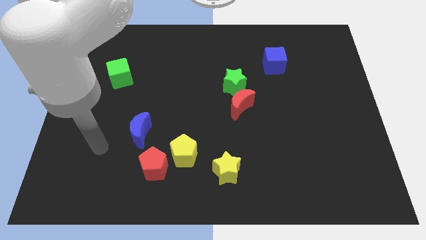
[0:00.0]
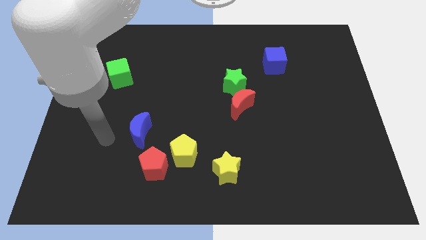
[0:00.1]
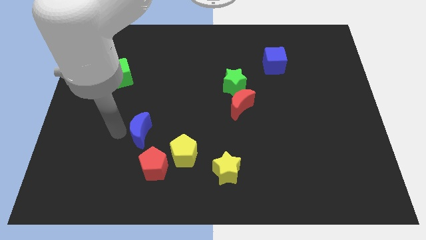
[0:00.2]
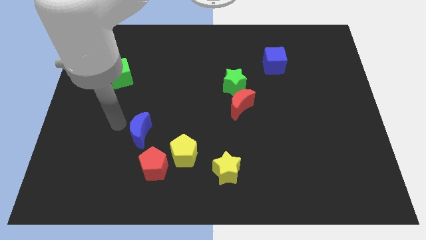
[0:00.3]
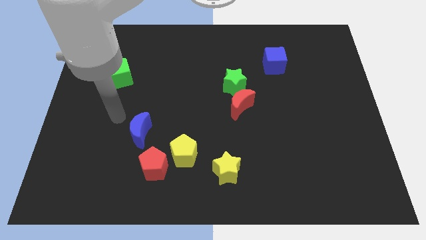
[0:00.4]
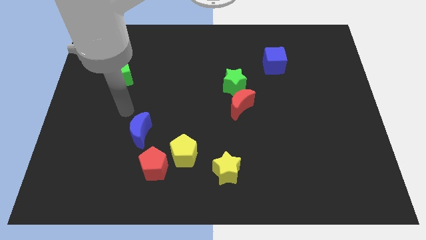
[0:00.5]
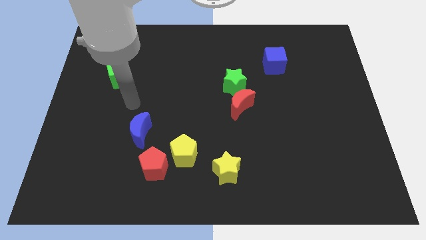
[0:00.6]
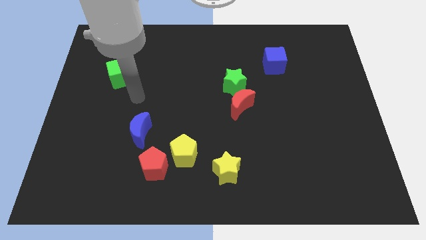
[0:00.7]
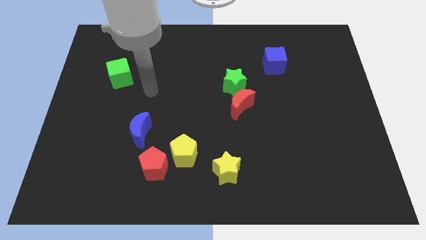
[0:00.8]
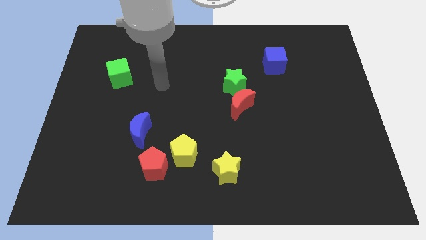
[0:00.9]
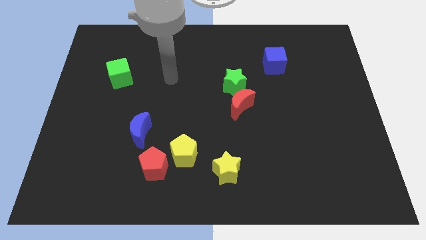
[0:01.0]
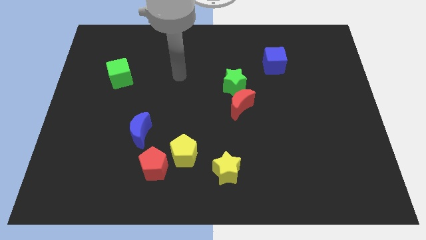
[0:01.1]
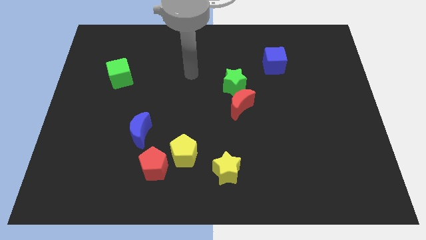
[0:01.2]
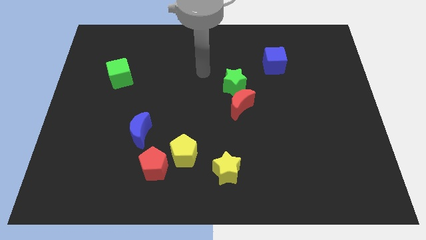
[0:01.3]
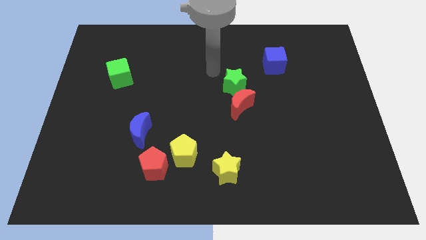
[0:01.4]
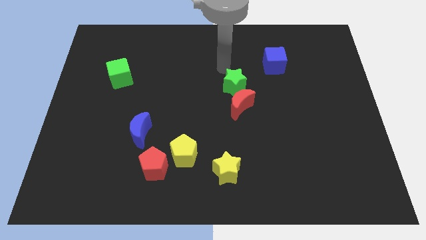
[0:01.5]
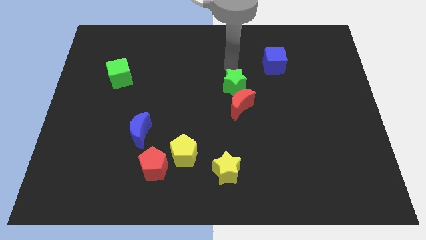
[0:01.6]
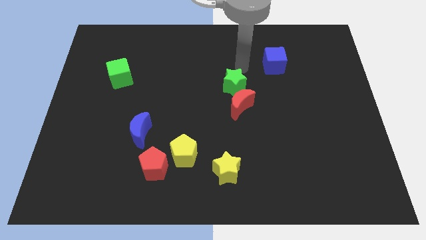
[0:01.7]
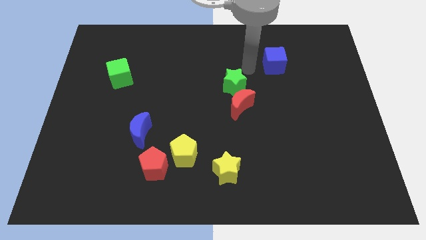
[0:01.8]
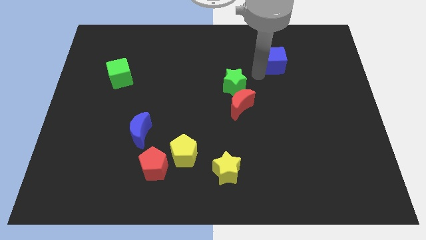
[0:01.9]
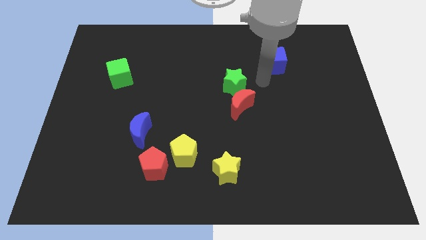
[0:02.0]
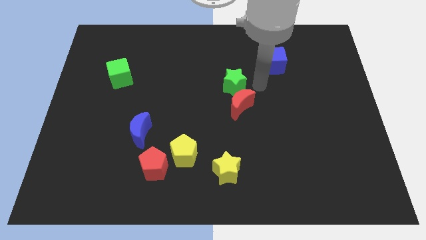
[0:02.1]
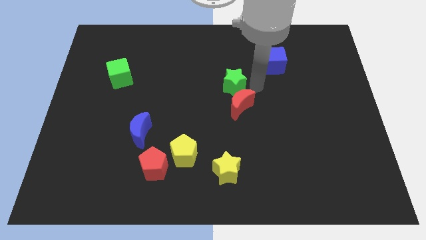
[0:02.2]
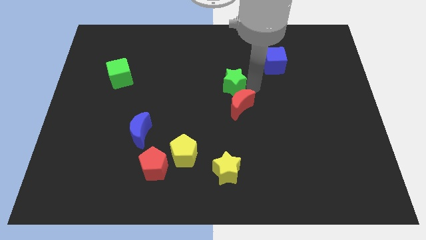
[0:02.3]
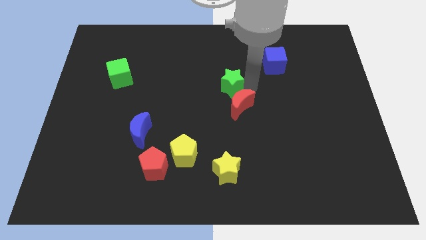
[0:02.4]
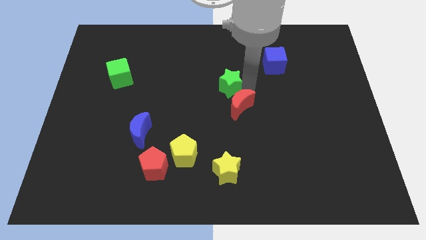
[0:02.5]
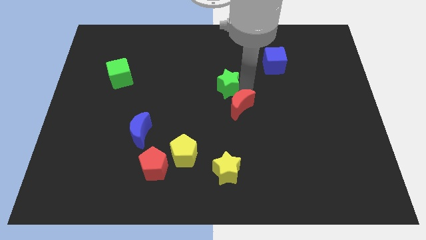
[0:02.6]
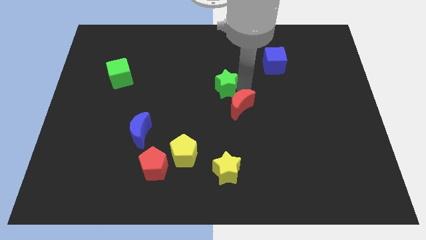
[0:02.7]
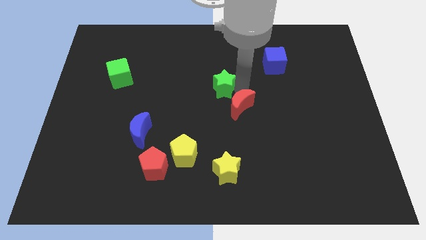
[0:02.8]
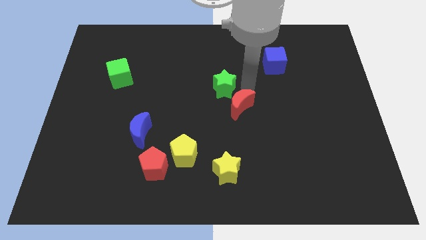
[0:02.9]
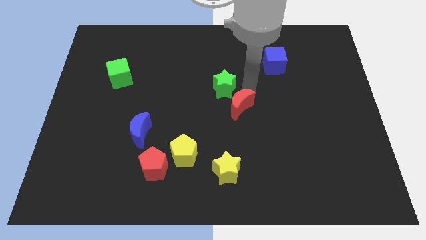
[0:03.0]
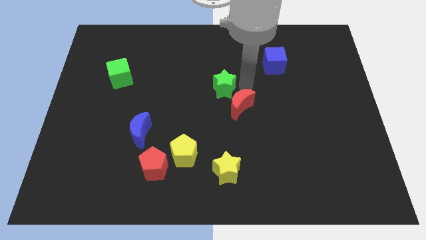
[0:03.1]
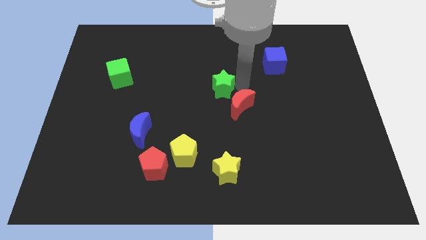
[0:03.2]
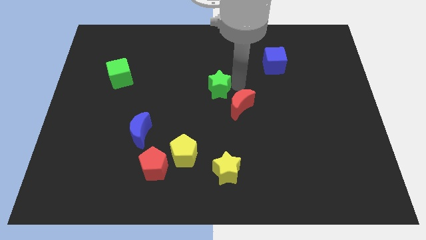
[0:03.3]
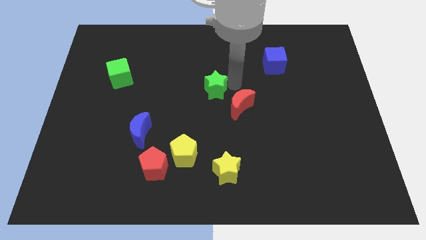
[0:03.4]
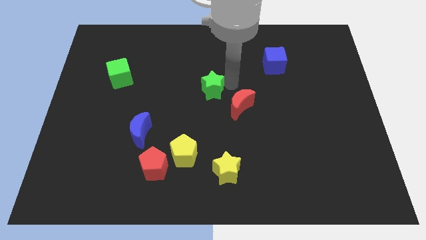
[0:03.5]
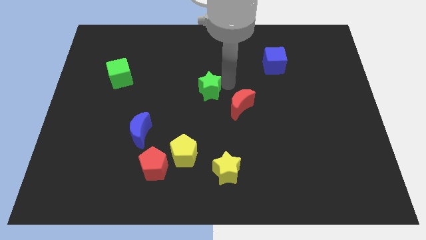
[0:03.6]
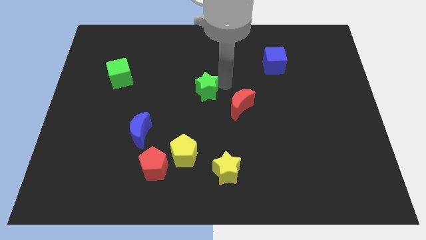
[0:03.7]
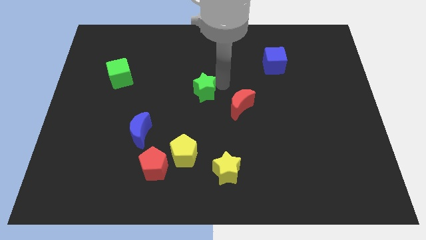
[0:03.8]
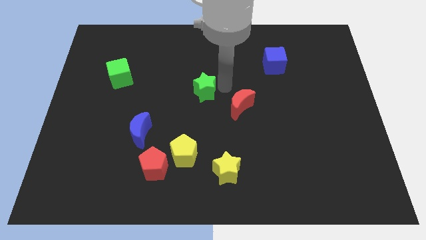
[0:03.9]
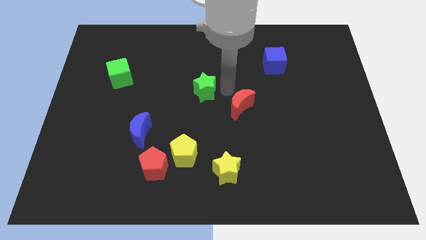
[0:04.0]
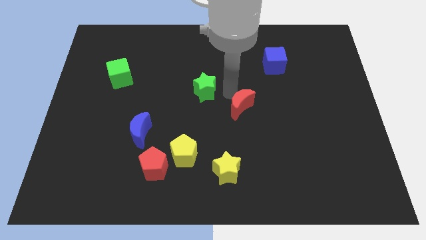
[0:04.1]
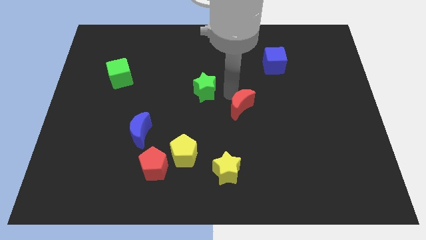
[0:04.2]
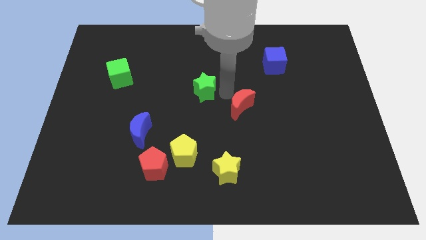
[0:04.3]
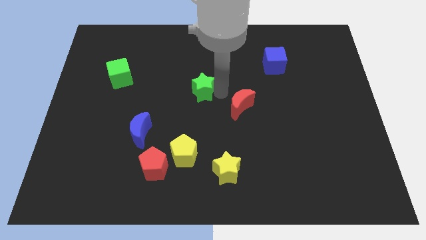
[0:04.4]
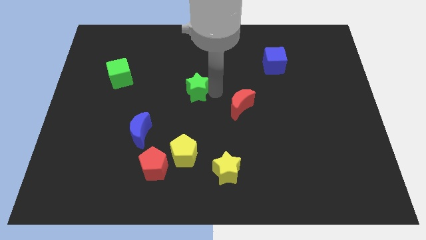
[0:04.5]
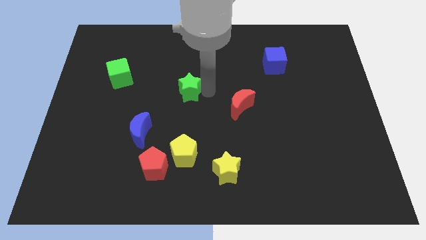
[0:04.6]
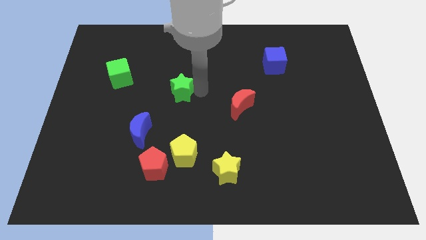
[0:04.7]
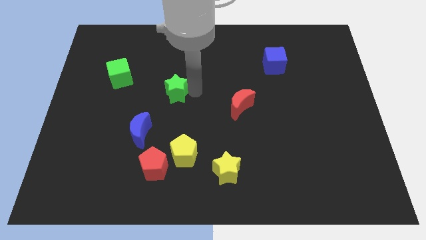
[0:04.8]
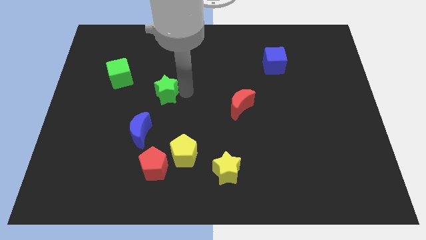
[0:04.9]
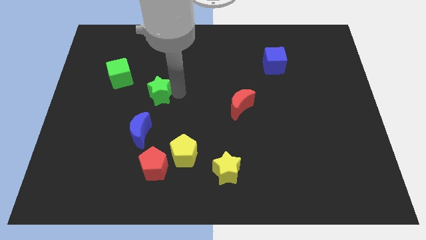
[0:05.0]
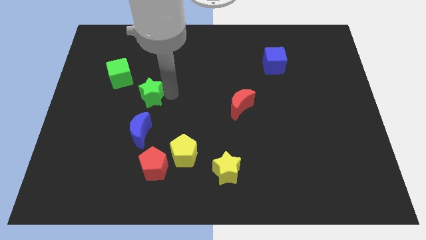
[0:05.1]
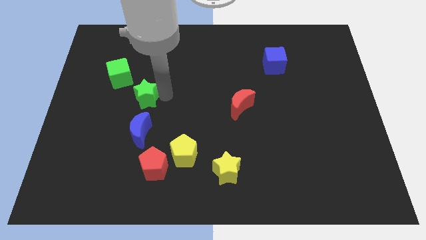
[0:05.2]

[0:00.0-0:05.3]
slide the green star to the left

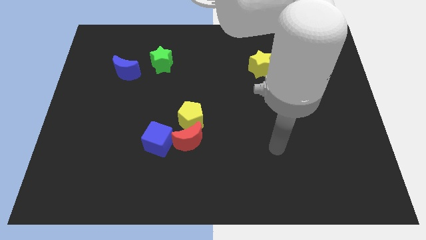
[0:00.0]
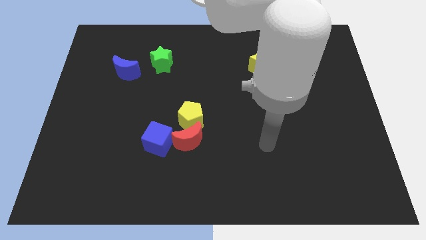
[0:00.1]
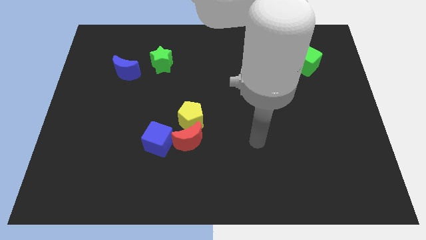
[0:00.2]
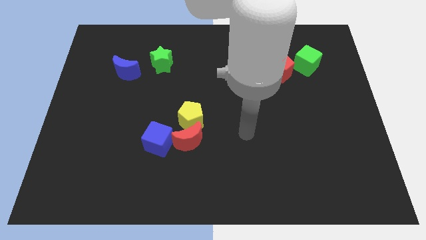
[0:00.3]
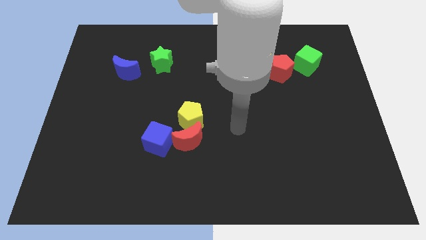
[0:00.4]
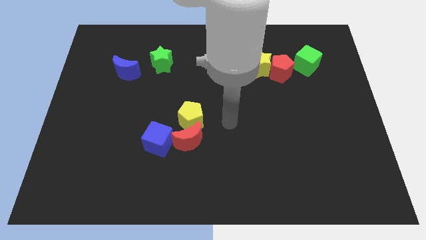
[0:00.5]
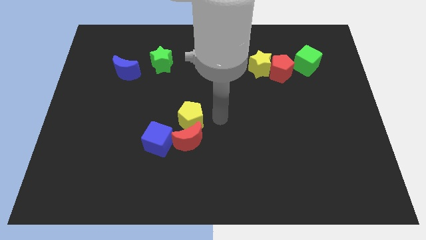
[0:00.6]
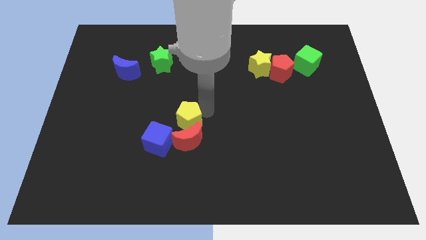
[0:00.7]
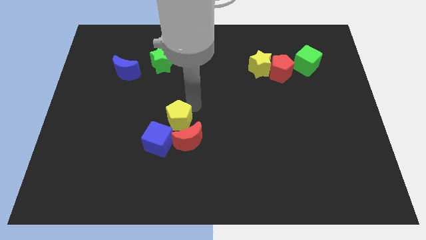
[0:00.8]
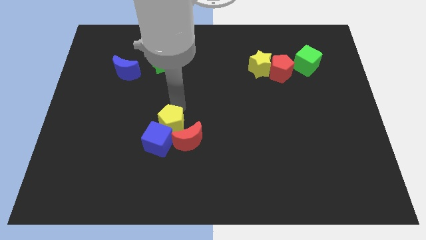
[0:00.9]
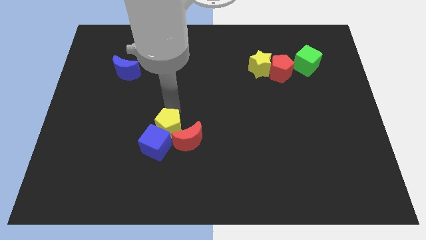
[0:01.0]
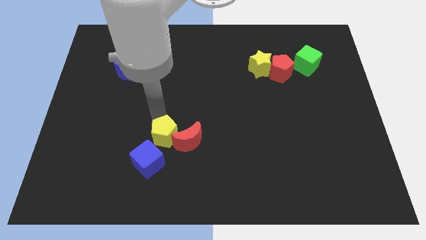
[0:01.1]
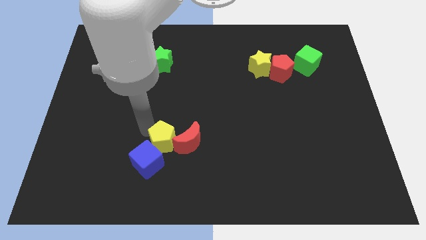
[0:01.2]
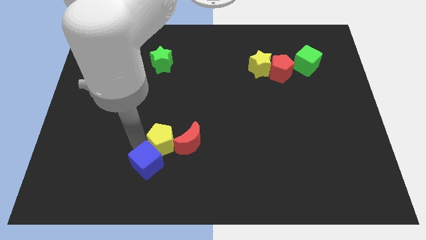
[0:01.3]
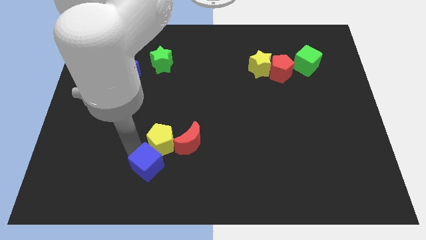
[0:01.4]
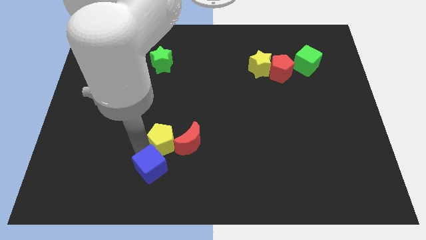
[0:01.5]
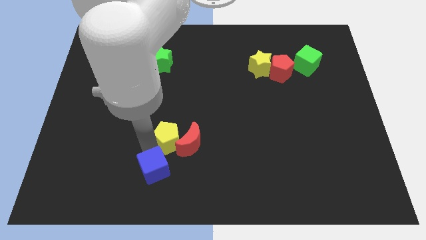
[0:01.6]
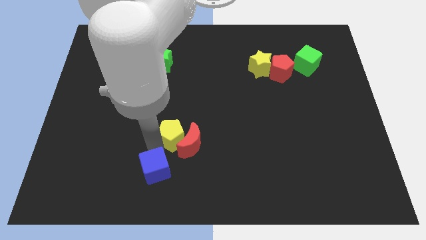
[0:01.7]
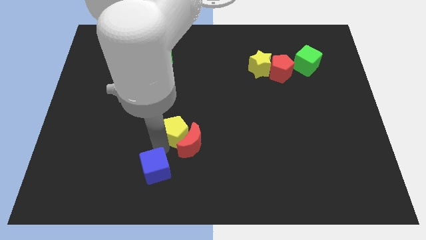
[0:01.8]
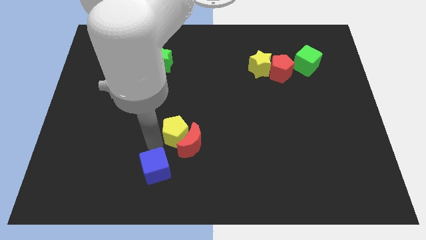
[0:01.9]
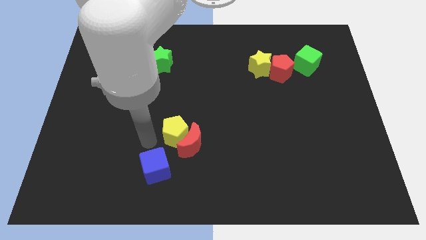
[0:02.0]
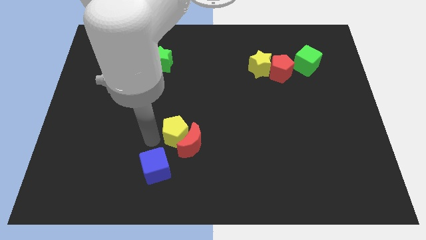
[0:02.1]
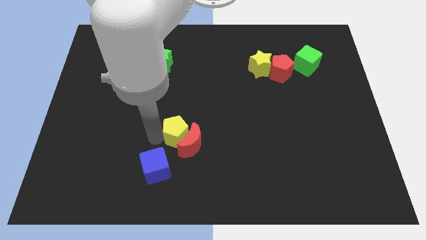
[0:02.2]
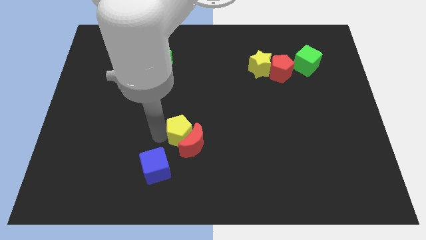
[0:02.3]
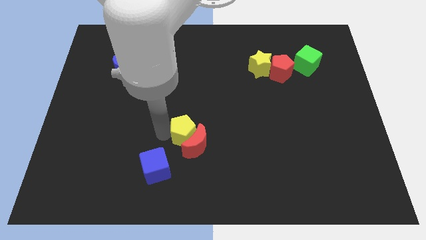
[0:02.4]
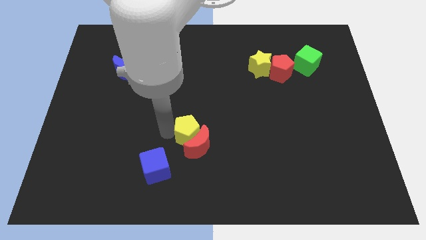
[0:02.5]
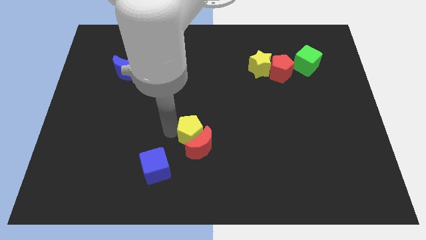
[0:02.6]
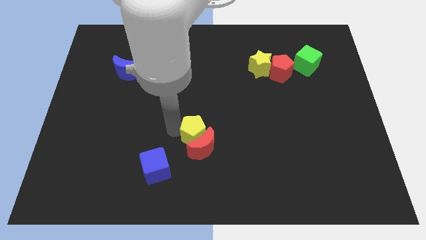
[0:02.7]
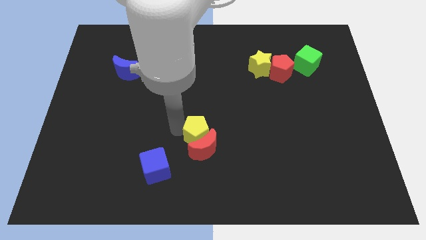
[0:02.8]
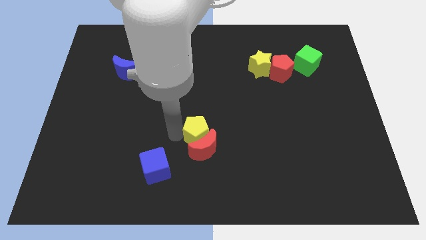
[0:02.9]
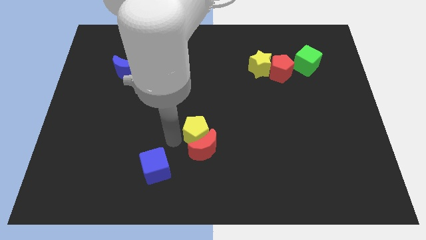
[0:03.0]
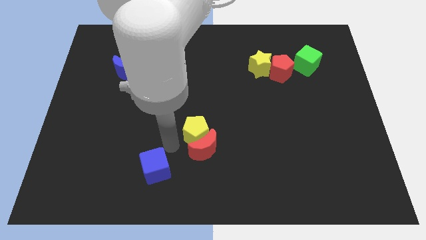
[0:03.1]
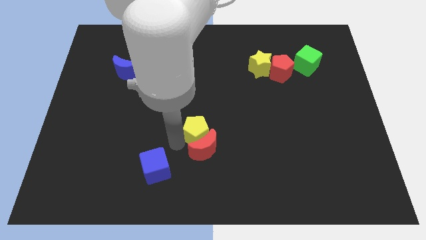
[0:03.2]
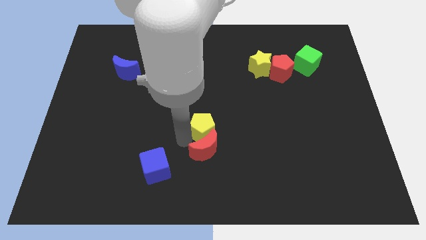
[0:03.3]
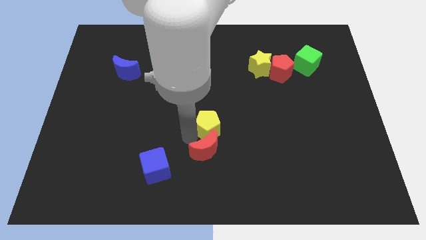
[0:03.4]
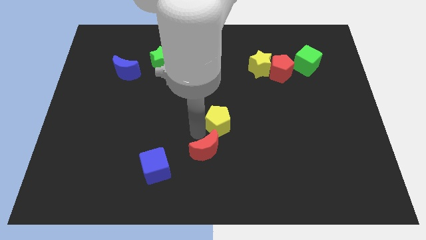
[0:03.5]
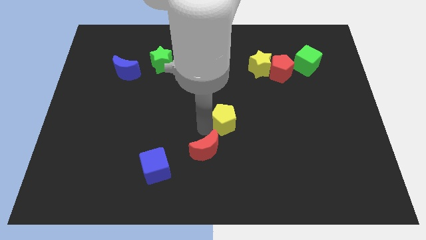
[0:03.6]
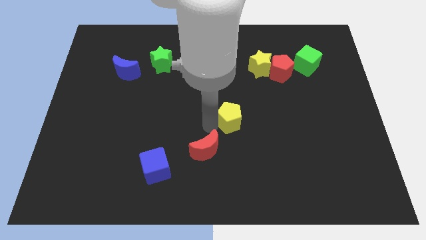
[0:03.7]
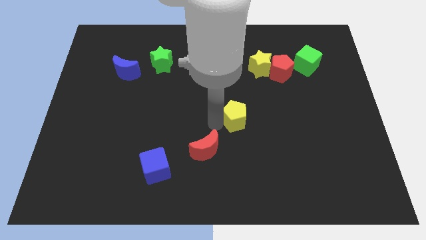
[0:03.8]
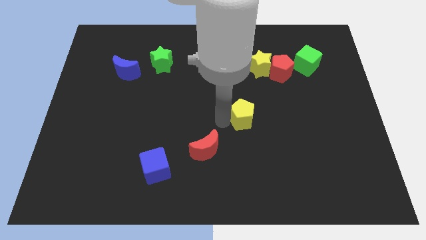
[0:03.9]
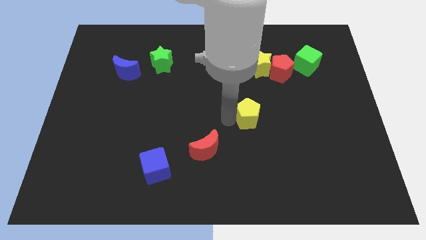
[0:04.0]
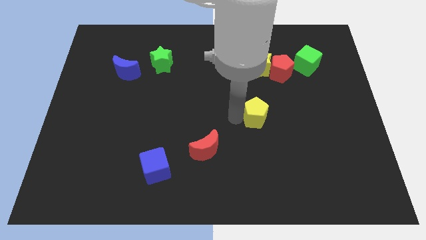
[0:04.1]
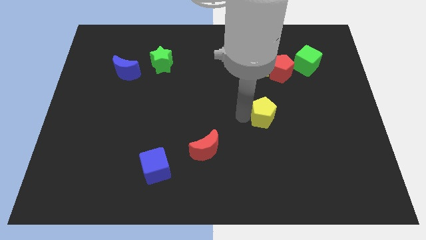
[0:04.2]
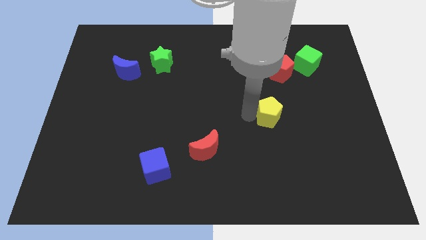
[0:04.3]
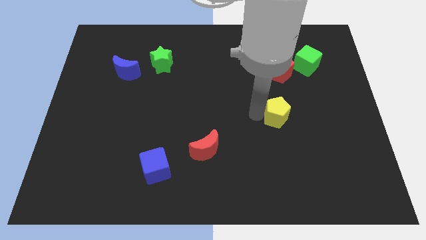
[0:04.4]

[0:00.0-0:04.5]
slide the yellow pentagon to the right
